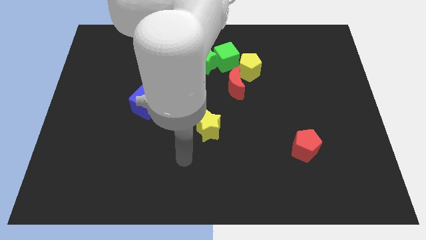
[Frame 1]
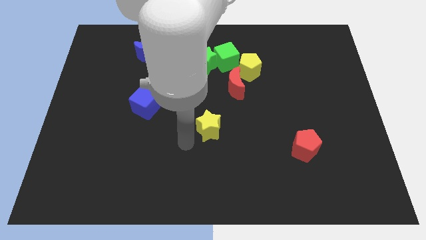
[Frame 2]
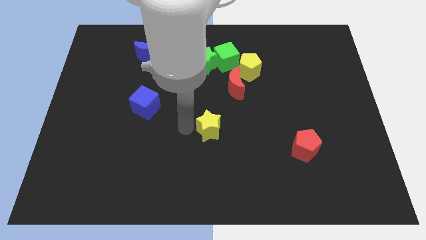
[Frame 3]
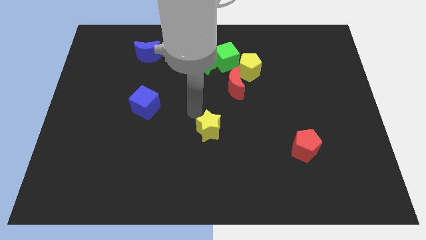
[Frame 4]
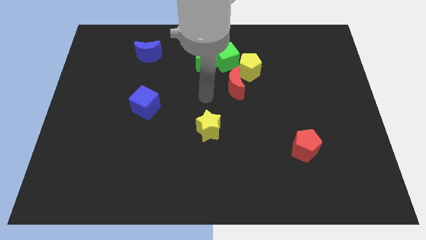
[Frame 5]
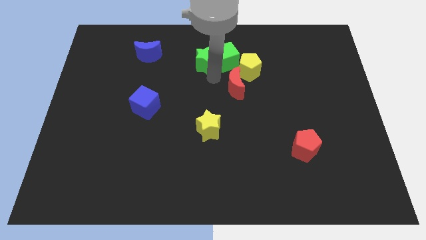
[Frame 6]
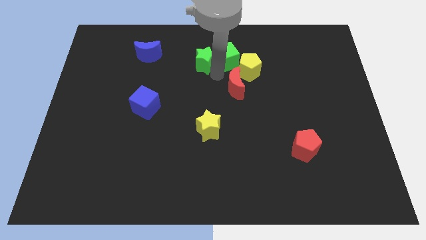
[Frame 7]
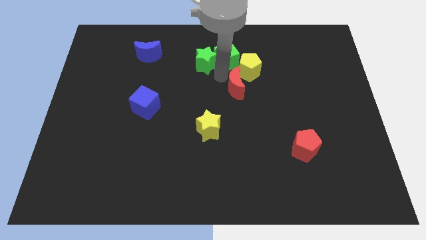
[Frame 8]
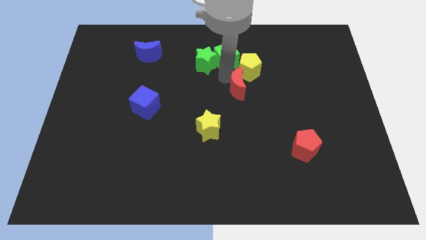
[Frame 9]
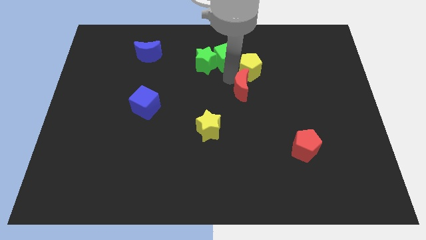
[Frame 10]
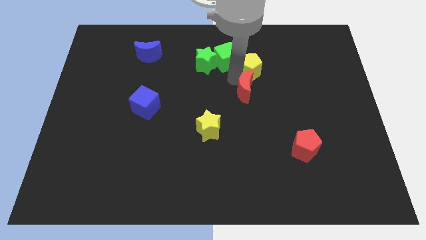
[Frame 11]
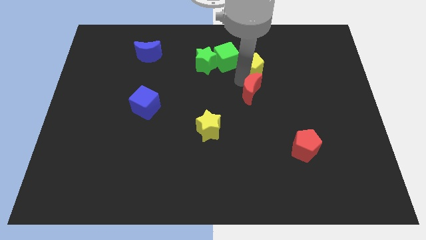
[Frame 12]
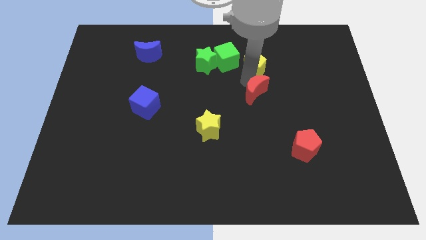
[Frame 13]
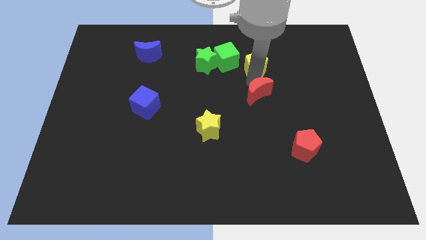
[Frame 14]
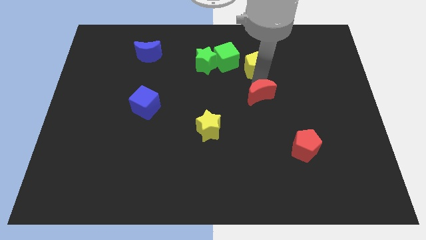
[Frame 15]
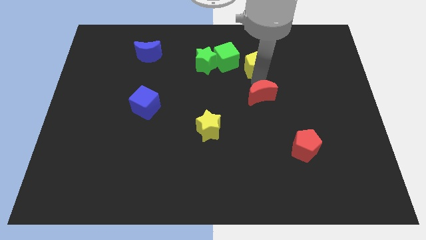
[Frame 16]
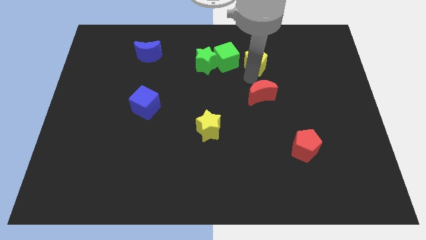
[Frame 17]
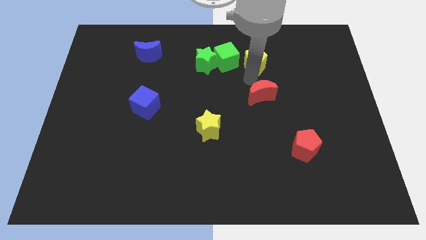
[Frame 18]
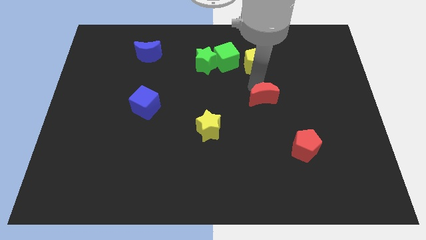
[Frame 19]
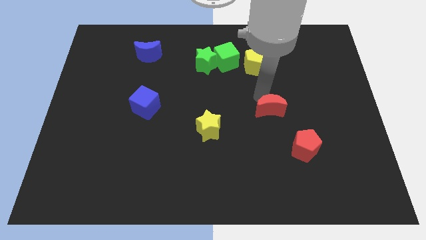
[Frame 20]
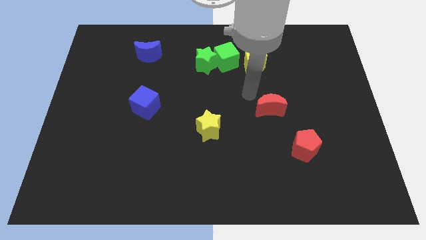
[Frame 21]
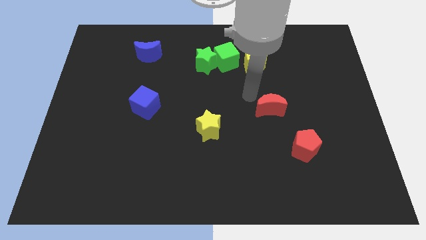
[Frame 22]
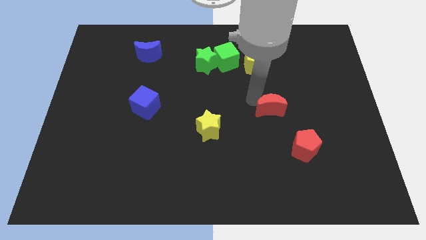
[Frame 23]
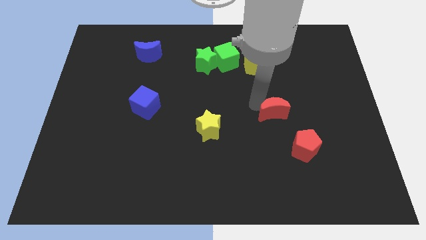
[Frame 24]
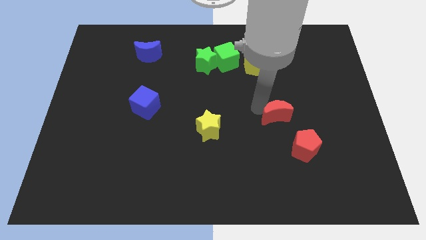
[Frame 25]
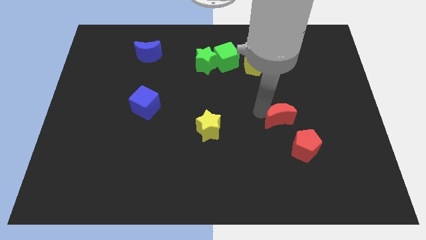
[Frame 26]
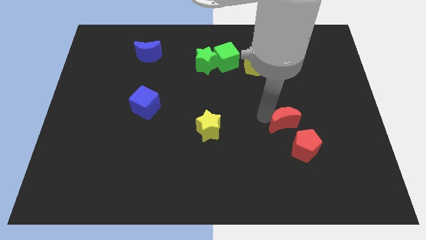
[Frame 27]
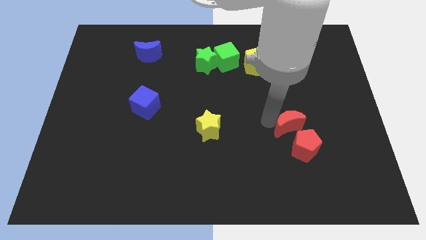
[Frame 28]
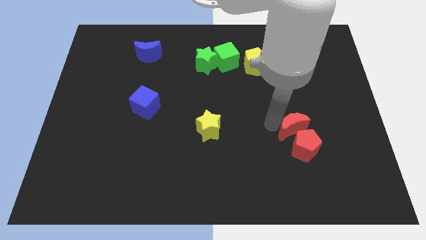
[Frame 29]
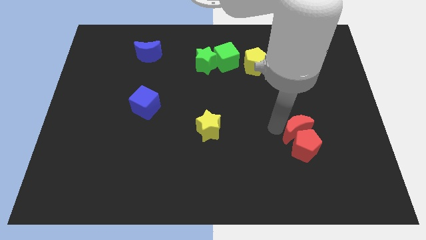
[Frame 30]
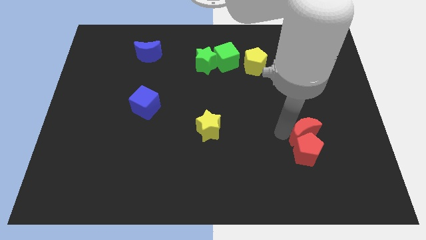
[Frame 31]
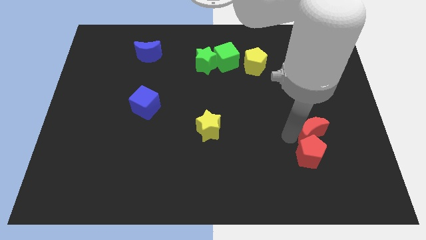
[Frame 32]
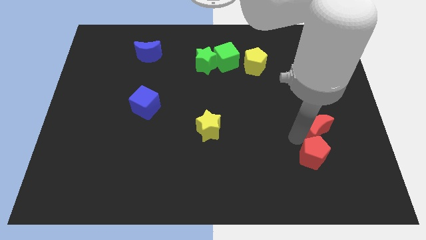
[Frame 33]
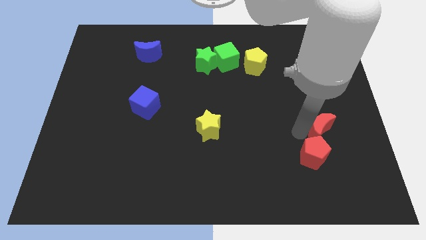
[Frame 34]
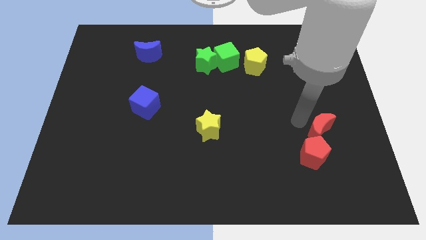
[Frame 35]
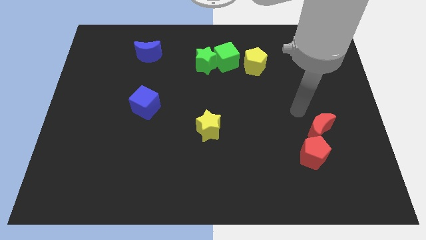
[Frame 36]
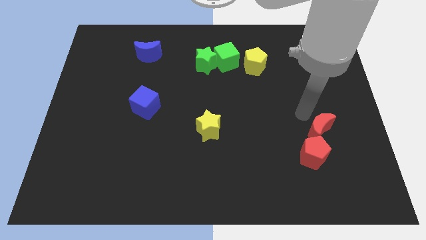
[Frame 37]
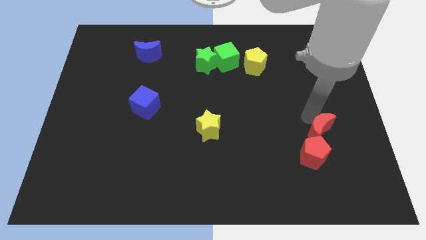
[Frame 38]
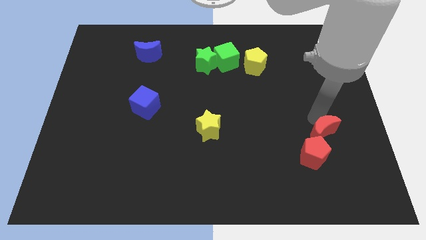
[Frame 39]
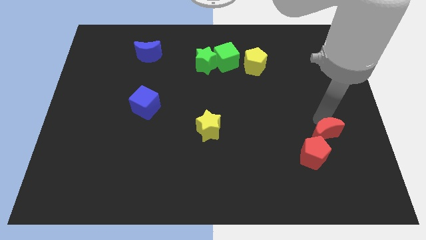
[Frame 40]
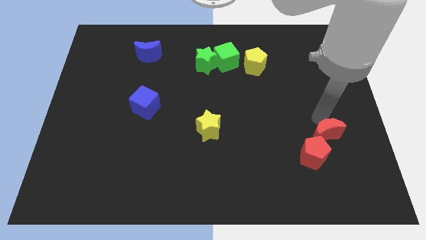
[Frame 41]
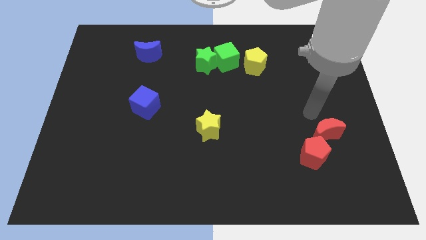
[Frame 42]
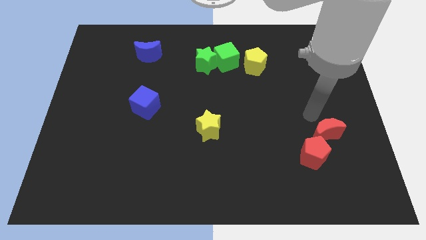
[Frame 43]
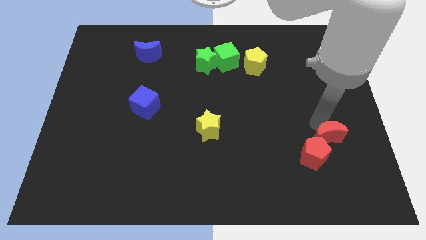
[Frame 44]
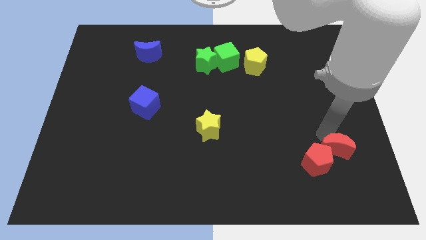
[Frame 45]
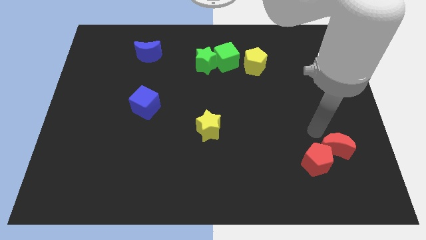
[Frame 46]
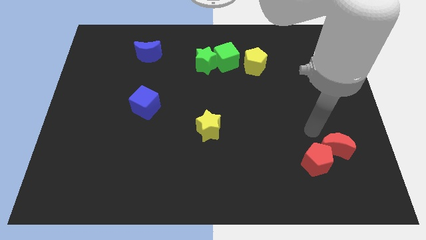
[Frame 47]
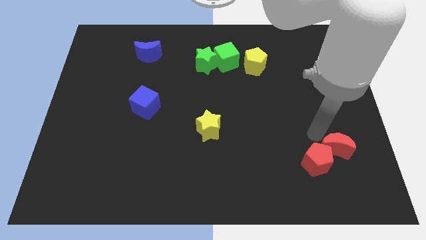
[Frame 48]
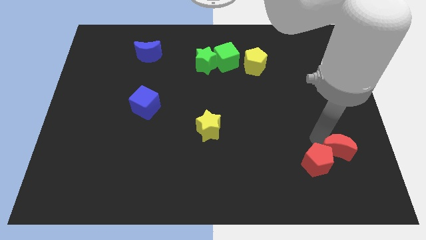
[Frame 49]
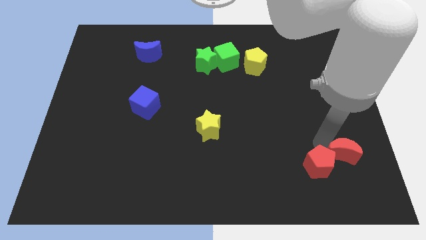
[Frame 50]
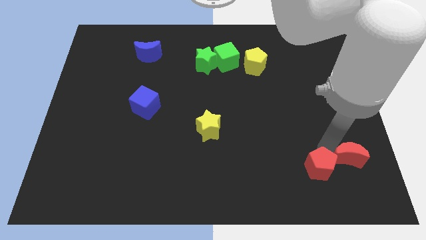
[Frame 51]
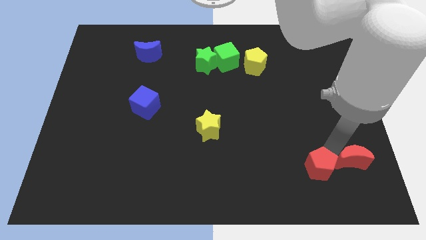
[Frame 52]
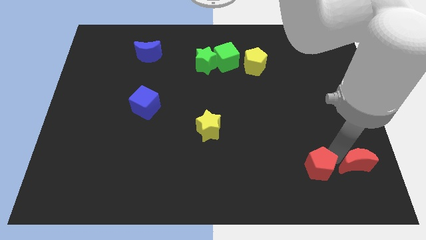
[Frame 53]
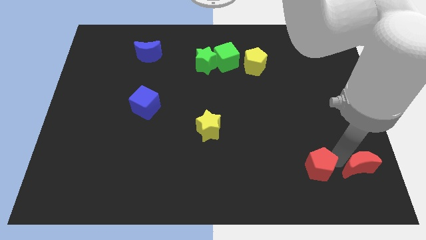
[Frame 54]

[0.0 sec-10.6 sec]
slide the red moon to the bottom right
